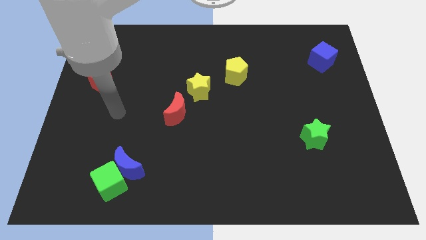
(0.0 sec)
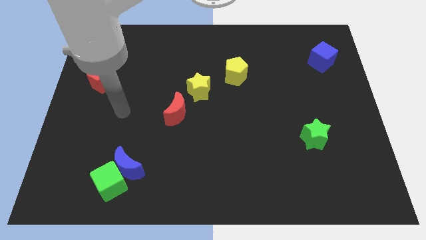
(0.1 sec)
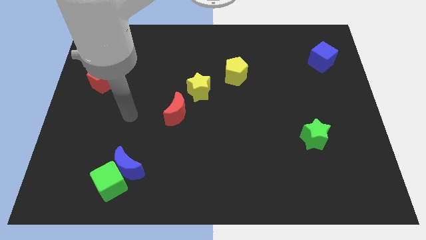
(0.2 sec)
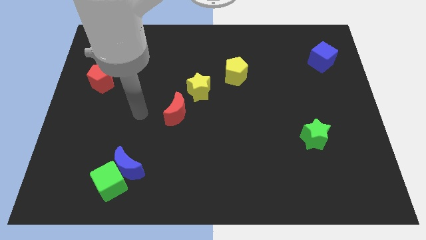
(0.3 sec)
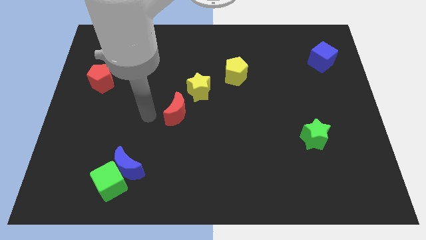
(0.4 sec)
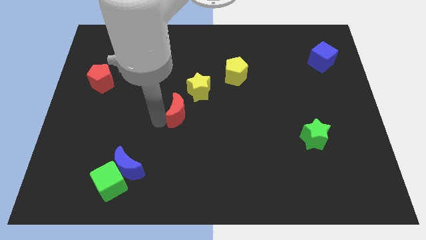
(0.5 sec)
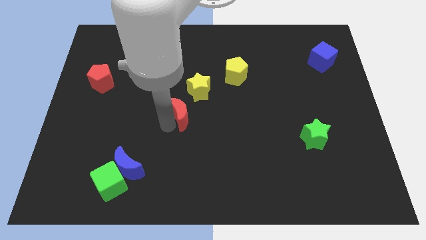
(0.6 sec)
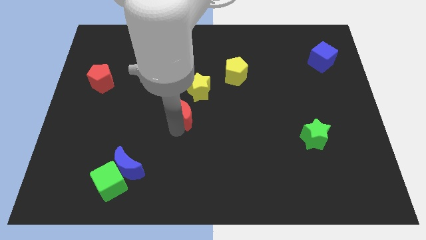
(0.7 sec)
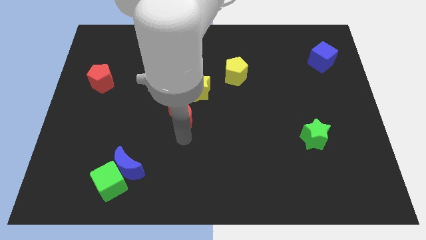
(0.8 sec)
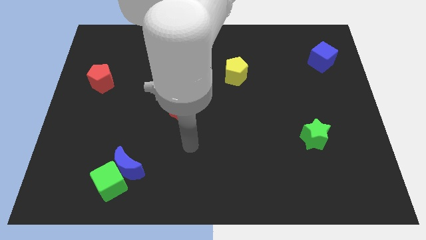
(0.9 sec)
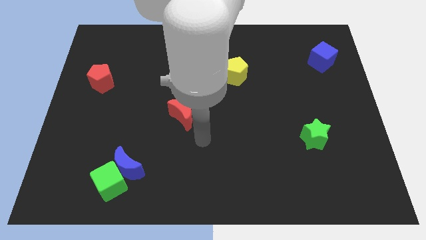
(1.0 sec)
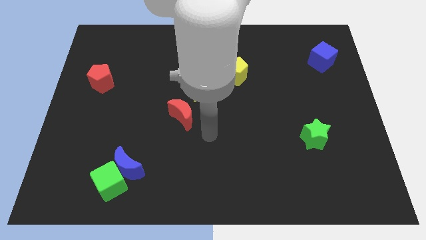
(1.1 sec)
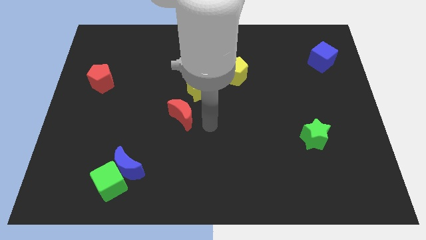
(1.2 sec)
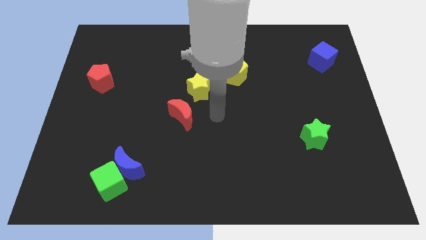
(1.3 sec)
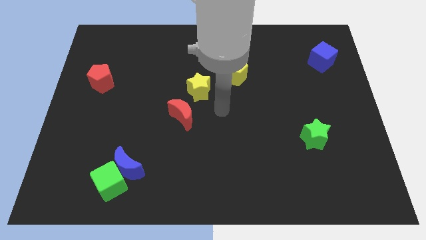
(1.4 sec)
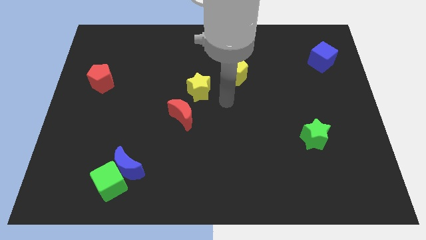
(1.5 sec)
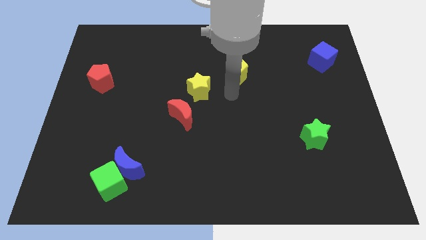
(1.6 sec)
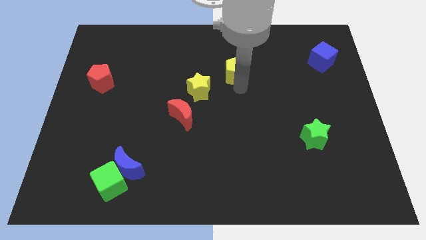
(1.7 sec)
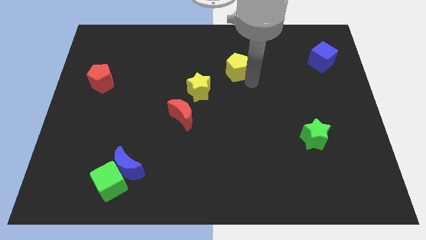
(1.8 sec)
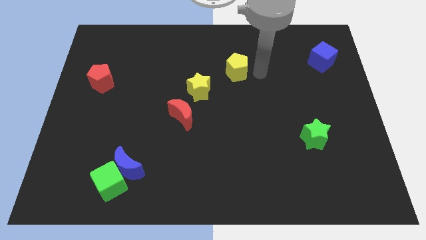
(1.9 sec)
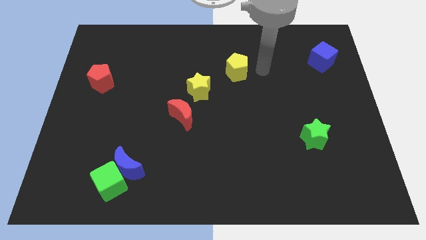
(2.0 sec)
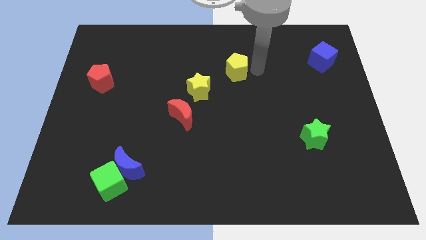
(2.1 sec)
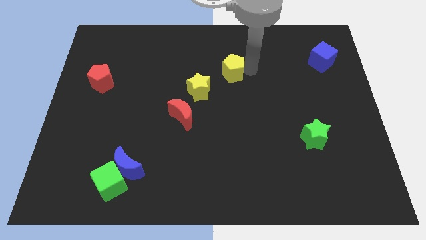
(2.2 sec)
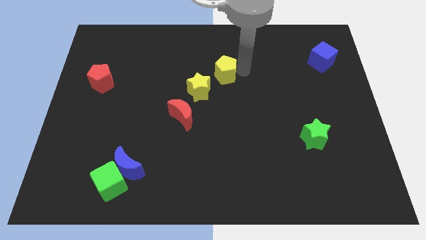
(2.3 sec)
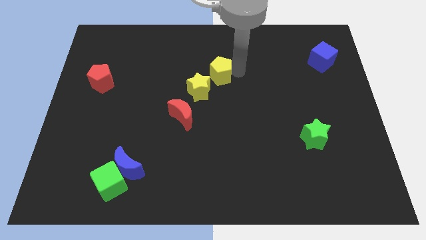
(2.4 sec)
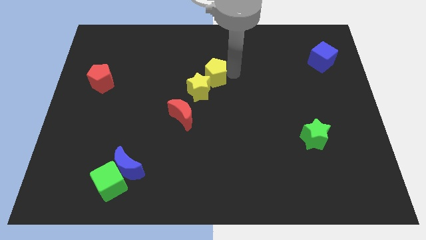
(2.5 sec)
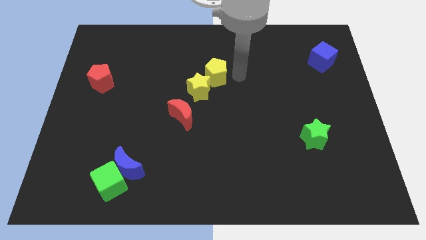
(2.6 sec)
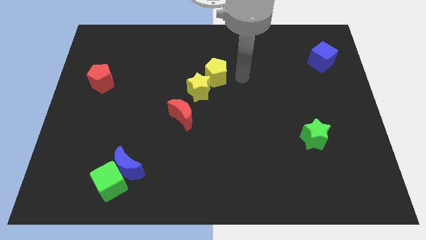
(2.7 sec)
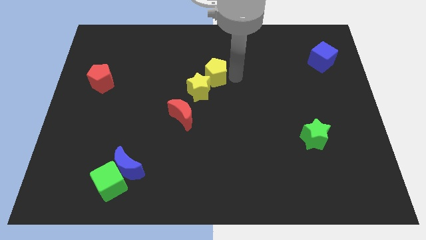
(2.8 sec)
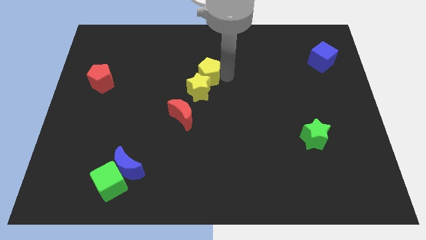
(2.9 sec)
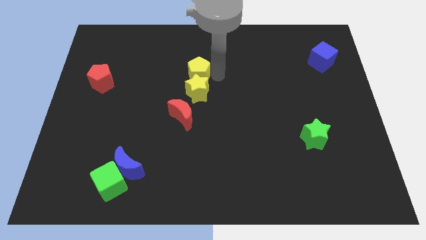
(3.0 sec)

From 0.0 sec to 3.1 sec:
push the yellow pentagon a little to the left

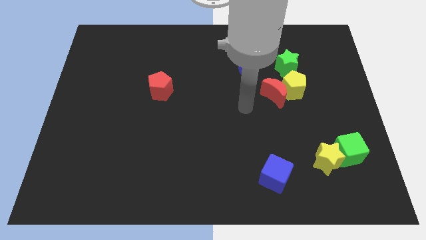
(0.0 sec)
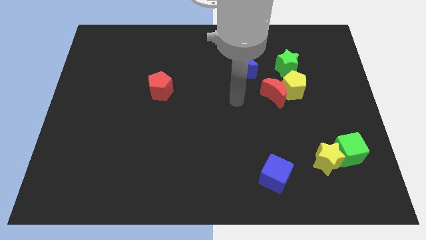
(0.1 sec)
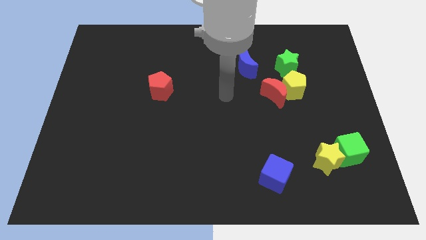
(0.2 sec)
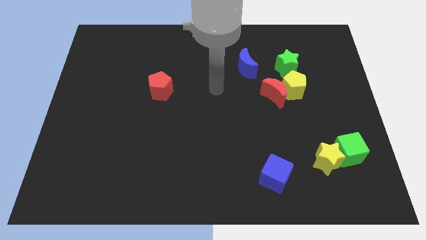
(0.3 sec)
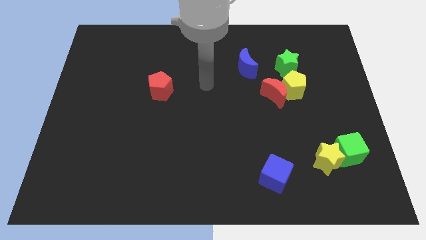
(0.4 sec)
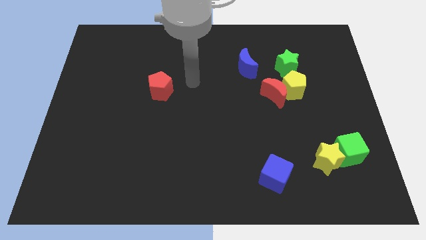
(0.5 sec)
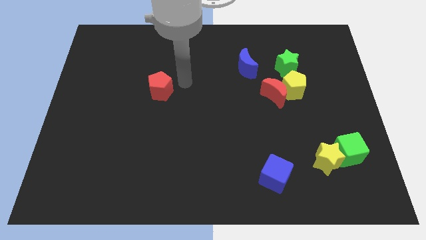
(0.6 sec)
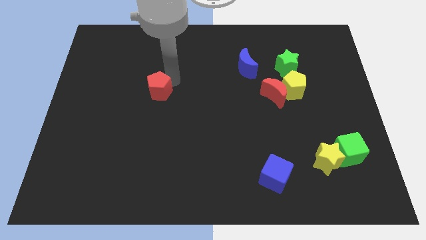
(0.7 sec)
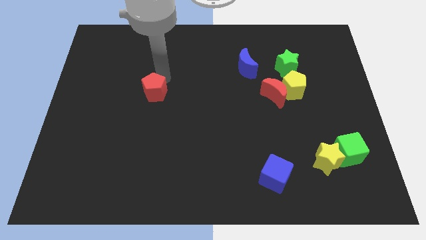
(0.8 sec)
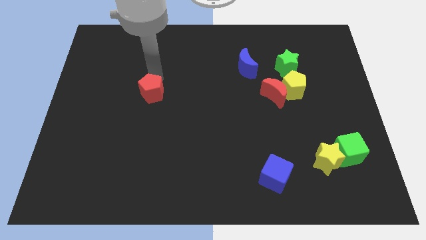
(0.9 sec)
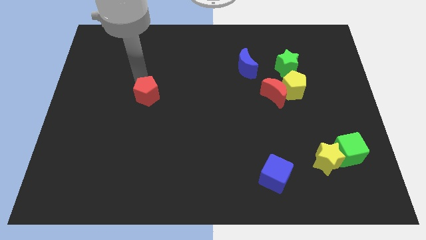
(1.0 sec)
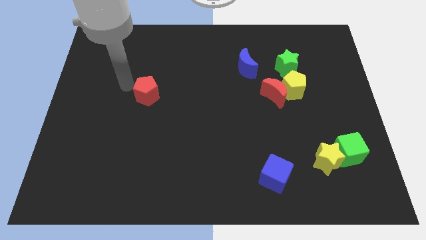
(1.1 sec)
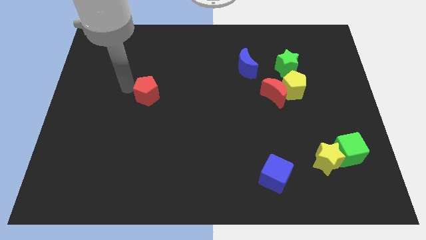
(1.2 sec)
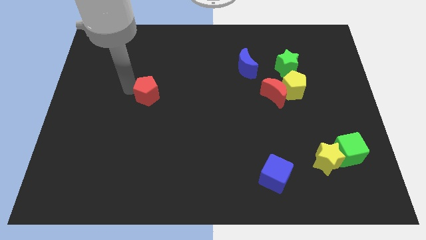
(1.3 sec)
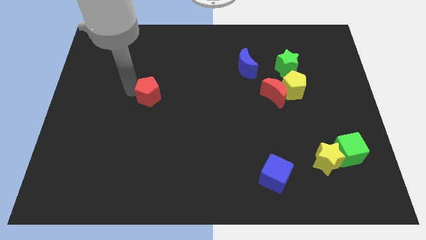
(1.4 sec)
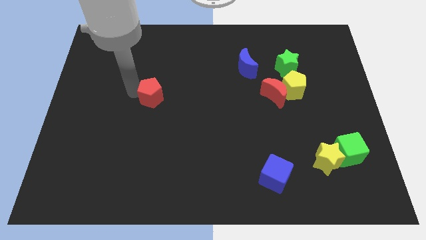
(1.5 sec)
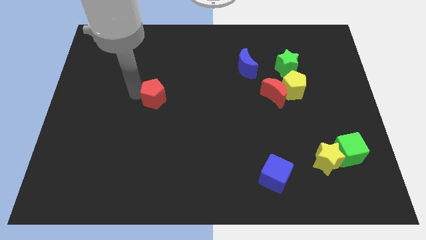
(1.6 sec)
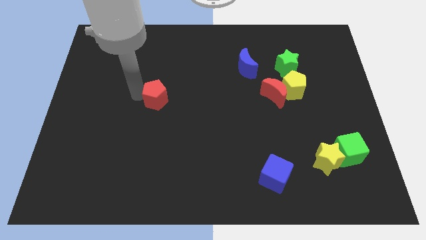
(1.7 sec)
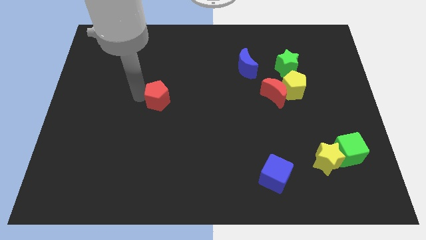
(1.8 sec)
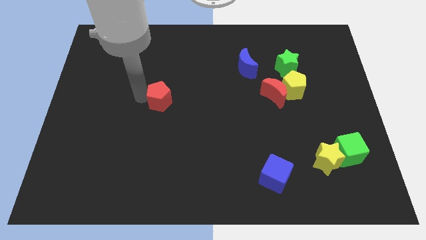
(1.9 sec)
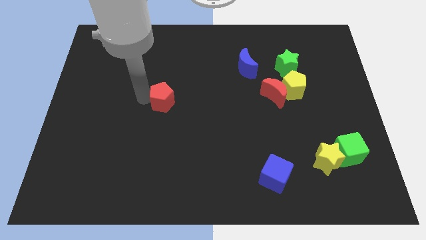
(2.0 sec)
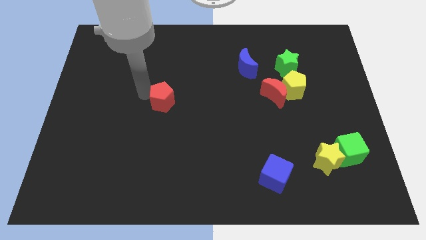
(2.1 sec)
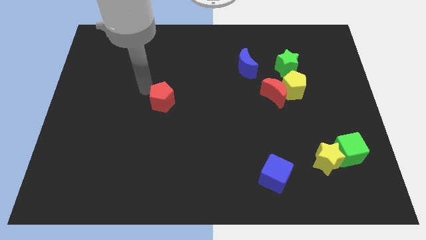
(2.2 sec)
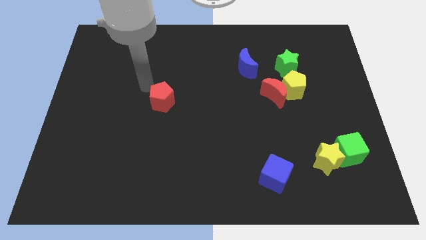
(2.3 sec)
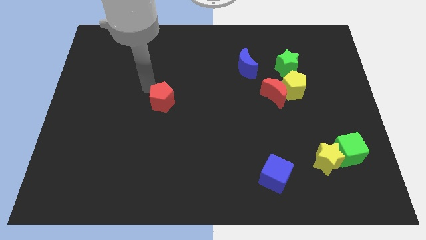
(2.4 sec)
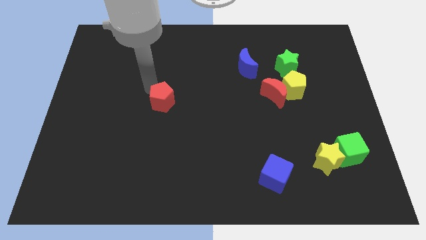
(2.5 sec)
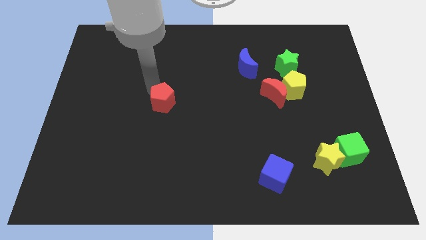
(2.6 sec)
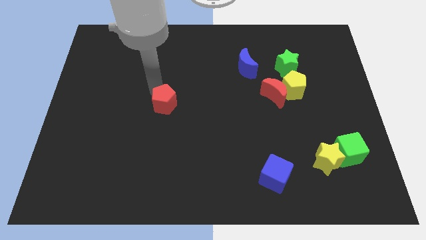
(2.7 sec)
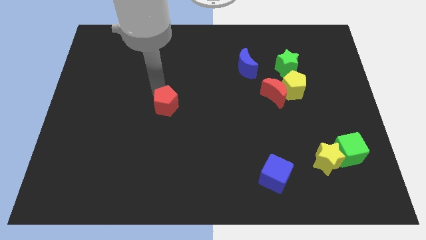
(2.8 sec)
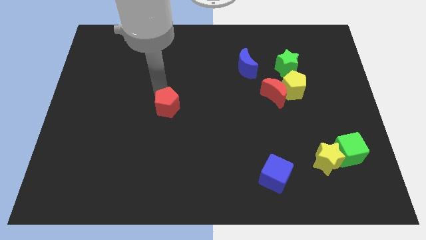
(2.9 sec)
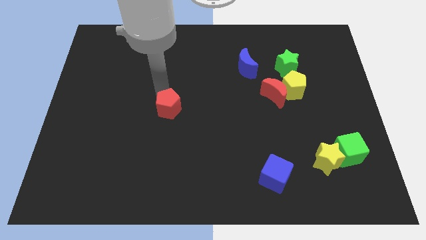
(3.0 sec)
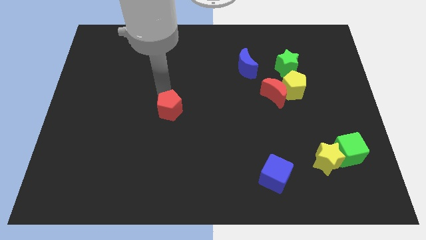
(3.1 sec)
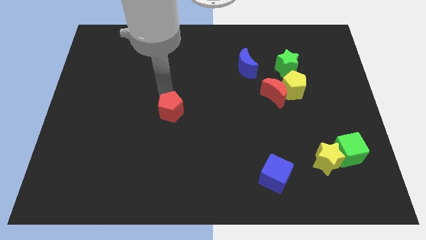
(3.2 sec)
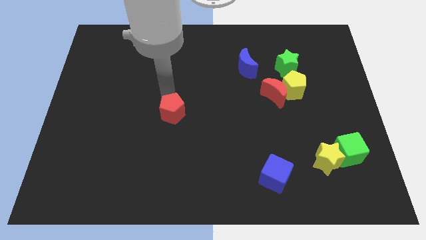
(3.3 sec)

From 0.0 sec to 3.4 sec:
slightly move the red pentagon downwards and then right

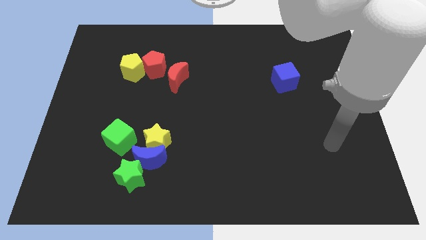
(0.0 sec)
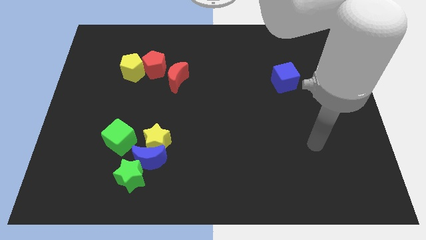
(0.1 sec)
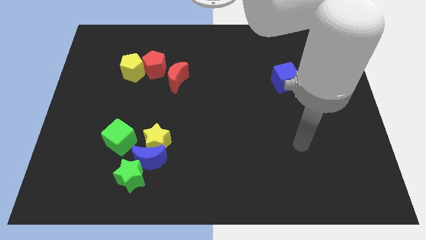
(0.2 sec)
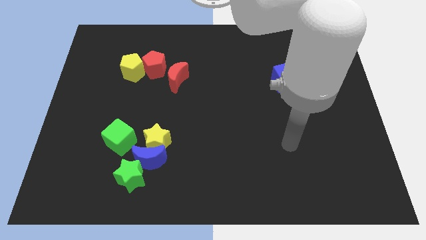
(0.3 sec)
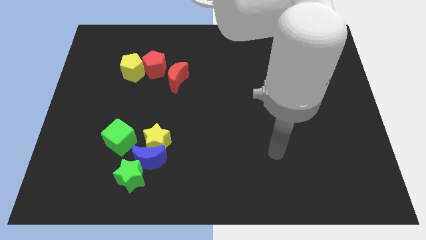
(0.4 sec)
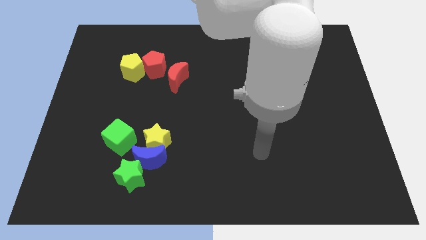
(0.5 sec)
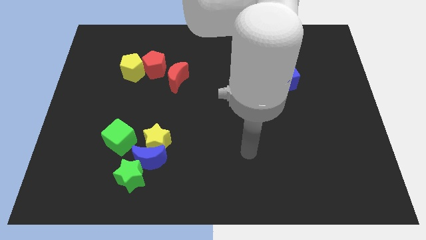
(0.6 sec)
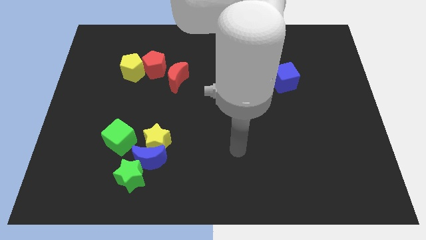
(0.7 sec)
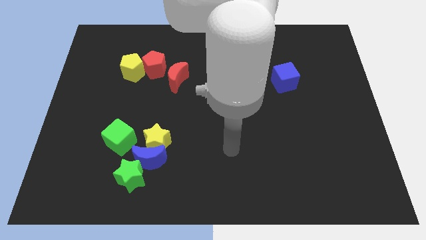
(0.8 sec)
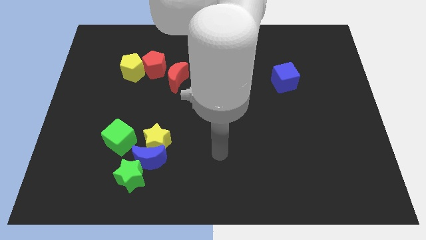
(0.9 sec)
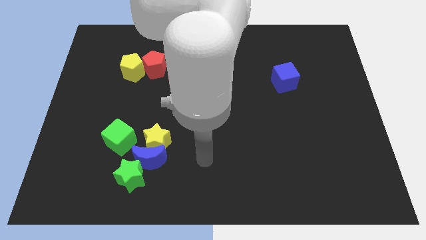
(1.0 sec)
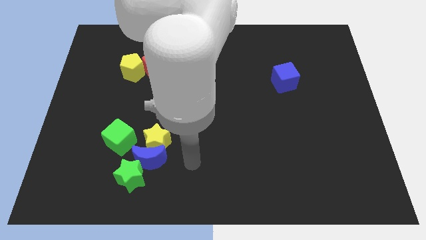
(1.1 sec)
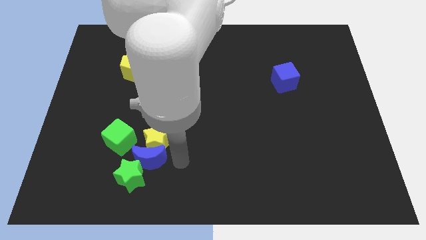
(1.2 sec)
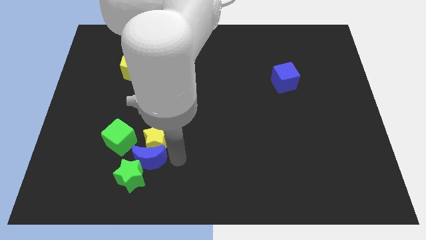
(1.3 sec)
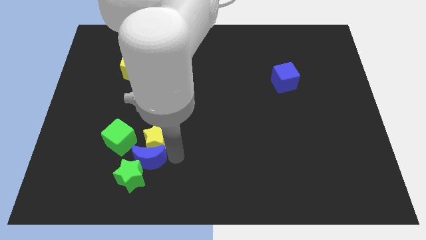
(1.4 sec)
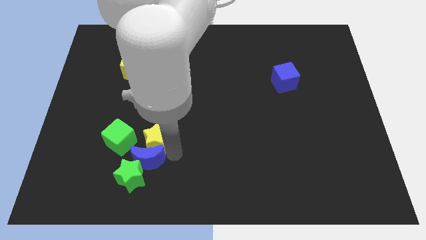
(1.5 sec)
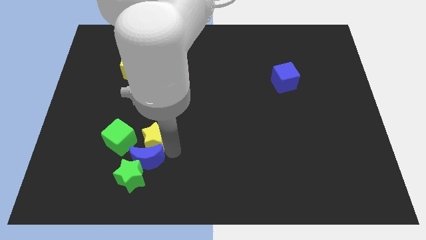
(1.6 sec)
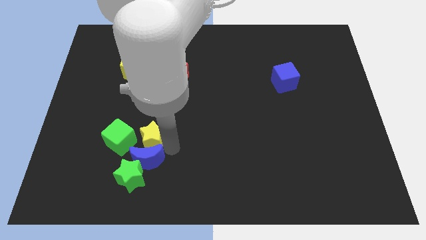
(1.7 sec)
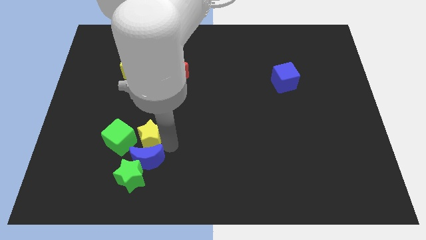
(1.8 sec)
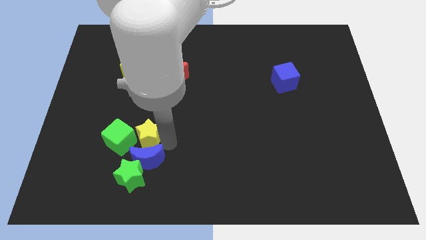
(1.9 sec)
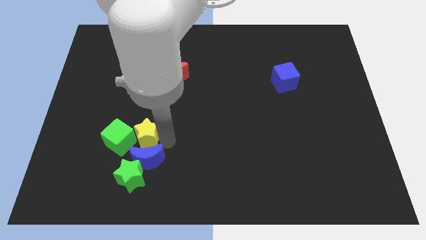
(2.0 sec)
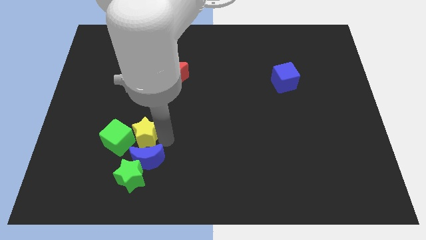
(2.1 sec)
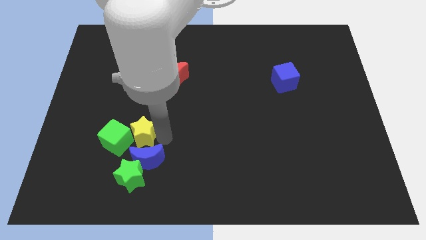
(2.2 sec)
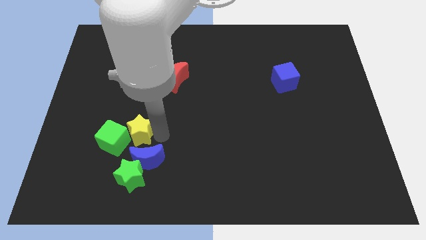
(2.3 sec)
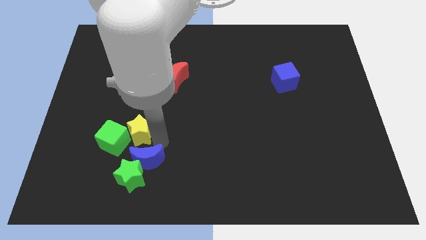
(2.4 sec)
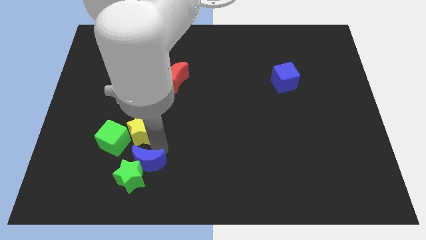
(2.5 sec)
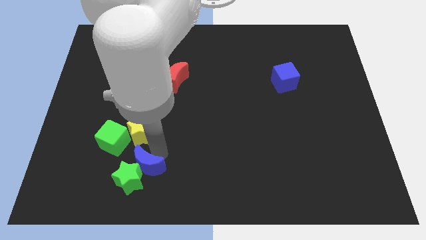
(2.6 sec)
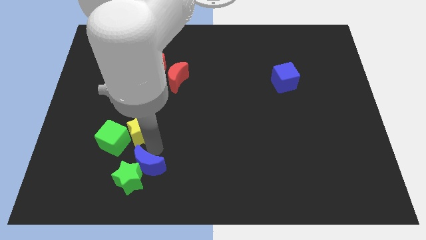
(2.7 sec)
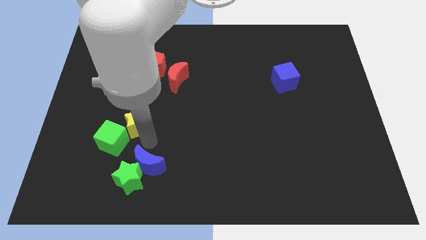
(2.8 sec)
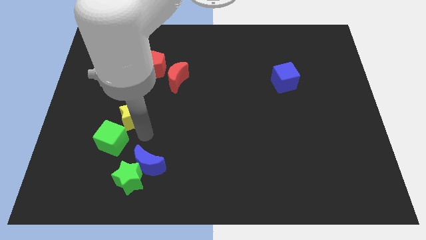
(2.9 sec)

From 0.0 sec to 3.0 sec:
slide the yellow star up and to the left diagonally slightly
